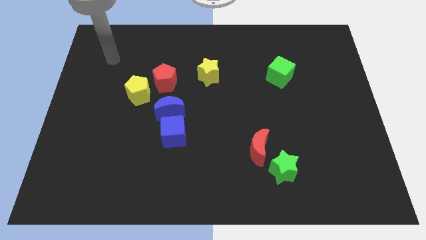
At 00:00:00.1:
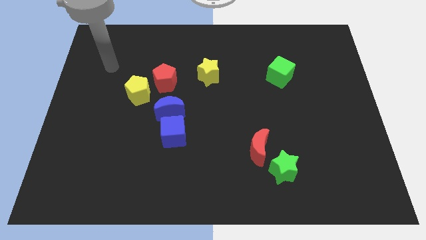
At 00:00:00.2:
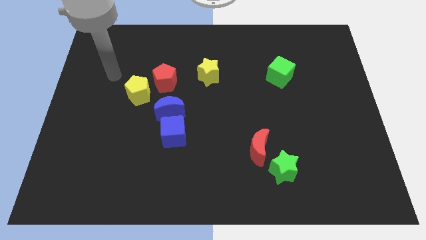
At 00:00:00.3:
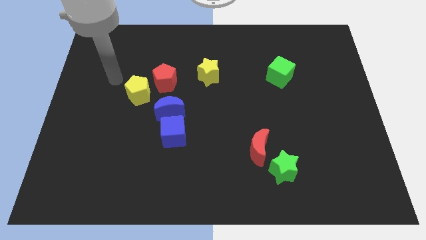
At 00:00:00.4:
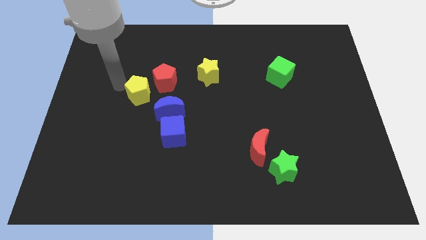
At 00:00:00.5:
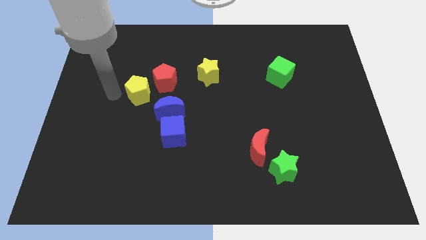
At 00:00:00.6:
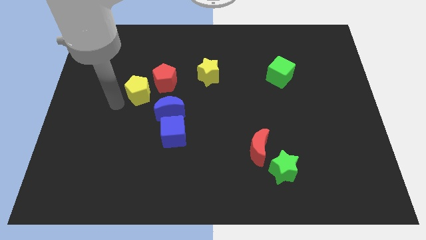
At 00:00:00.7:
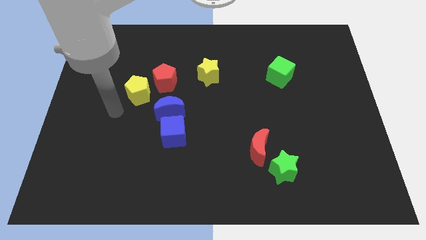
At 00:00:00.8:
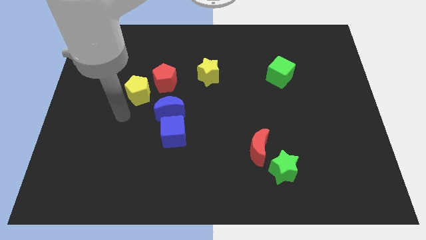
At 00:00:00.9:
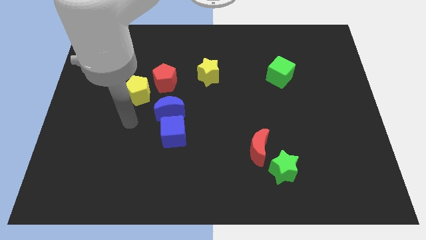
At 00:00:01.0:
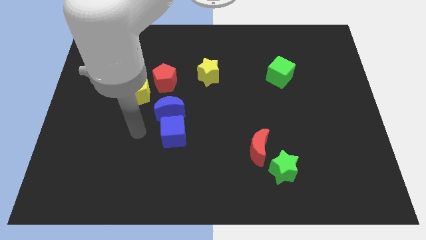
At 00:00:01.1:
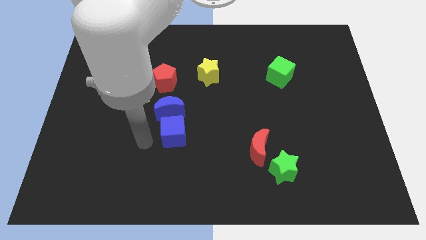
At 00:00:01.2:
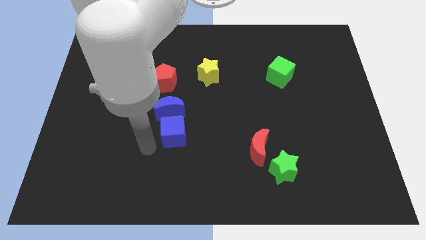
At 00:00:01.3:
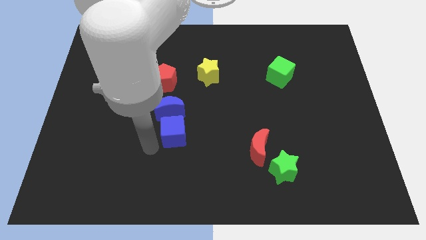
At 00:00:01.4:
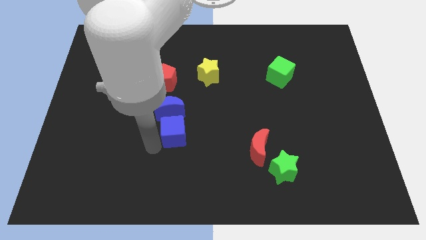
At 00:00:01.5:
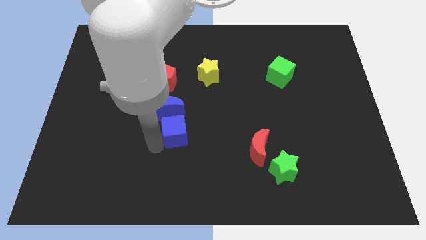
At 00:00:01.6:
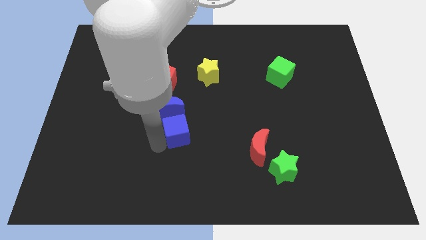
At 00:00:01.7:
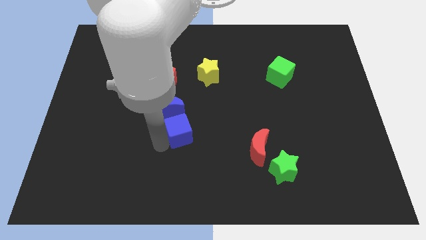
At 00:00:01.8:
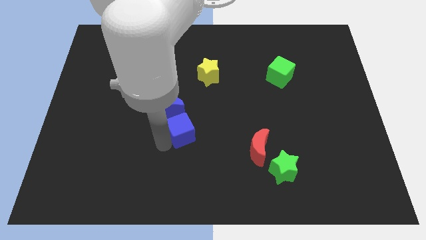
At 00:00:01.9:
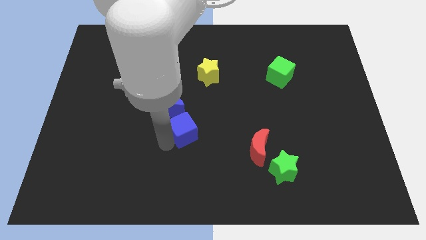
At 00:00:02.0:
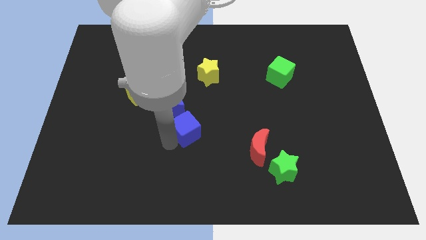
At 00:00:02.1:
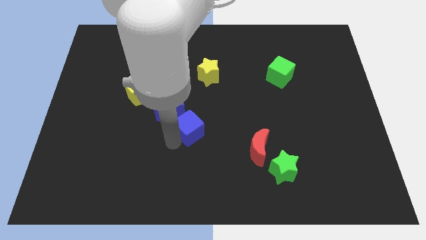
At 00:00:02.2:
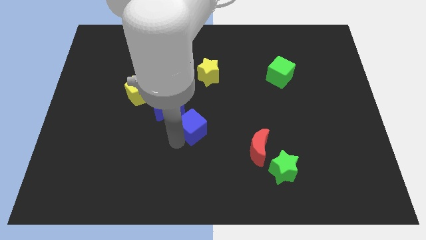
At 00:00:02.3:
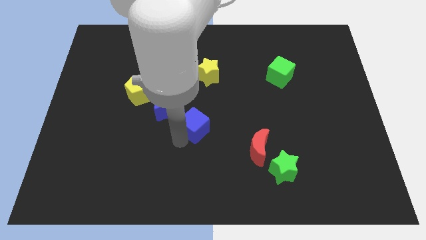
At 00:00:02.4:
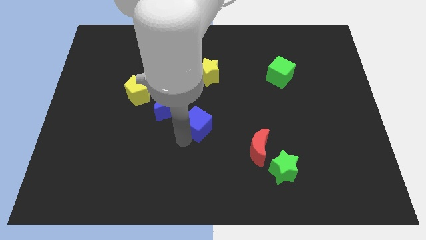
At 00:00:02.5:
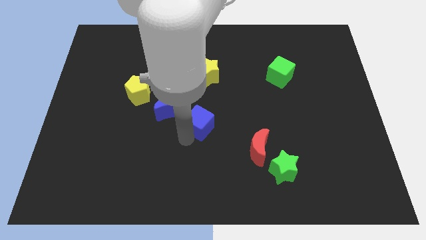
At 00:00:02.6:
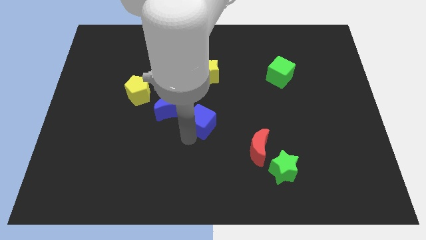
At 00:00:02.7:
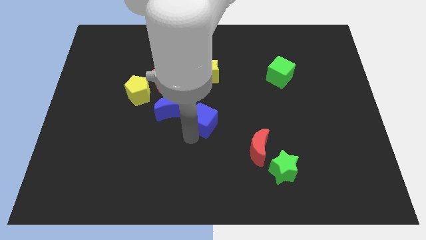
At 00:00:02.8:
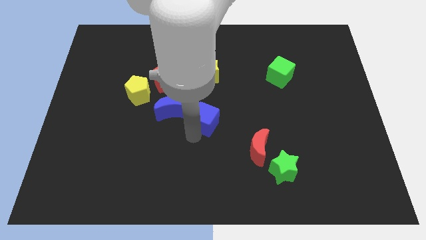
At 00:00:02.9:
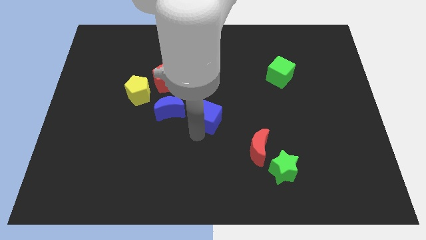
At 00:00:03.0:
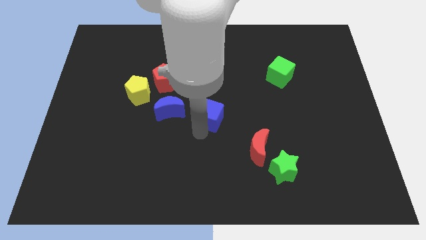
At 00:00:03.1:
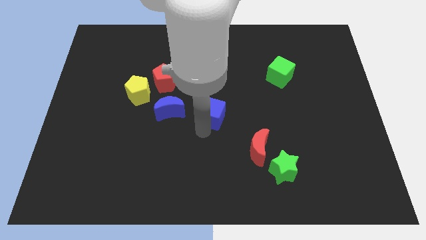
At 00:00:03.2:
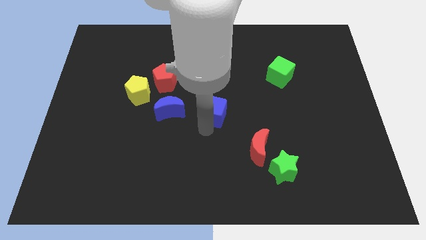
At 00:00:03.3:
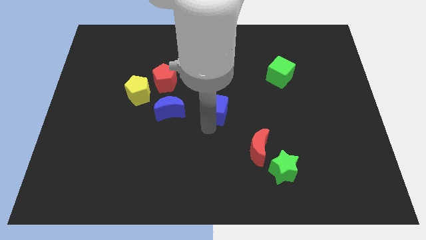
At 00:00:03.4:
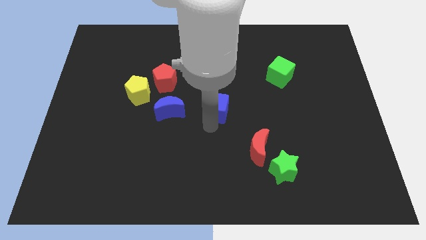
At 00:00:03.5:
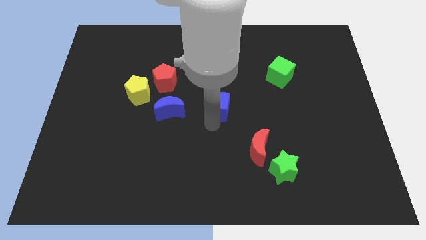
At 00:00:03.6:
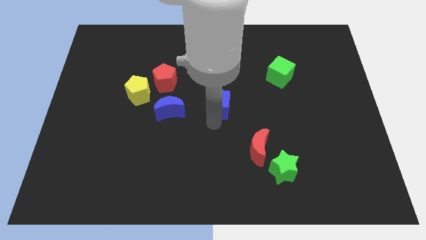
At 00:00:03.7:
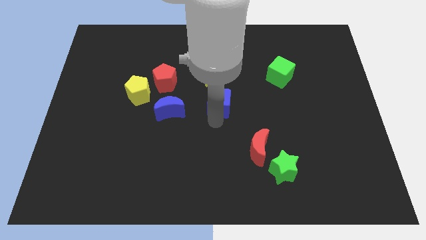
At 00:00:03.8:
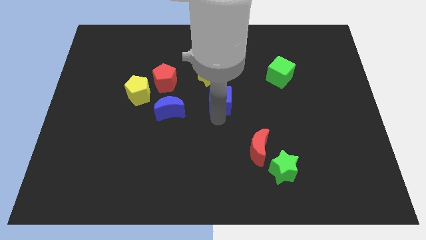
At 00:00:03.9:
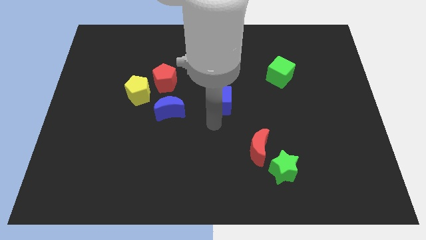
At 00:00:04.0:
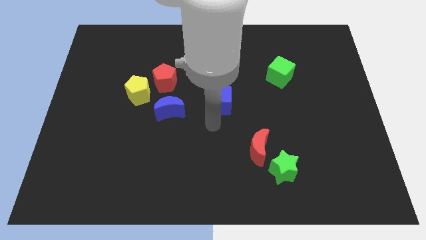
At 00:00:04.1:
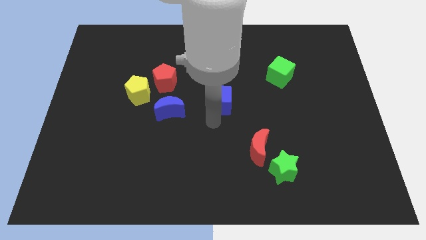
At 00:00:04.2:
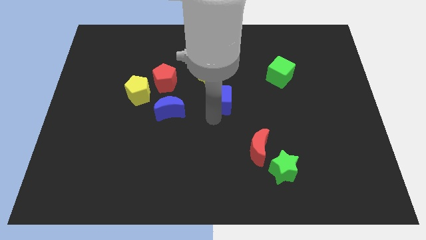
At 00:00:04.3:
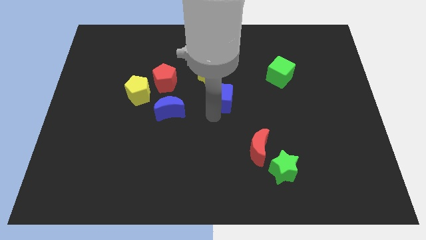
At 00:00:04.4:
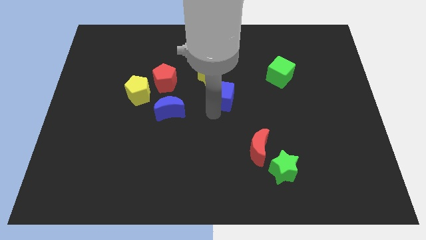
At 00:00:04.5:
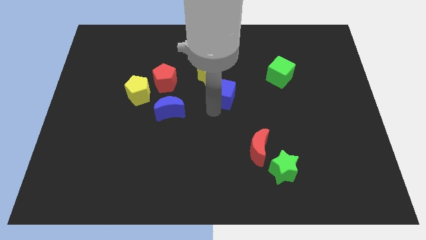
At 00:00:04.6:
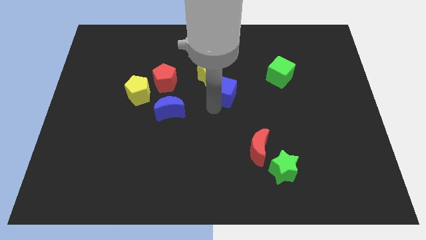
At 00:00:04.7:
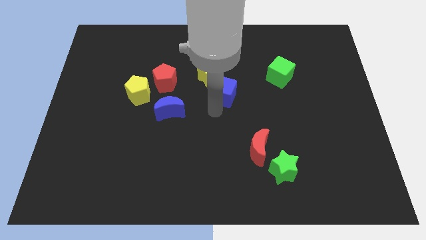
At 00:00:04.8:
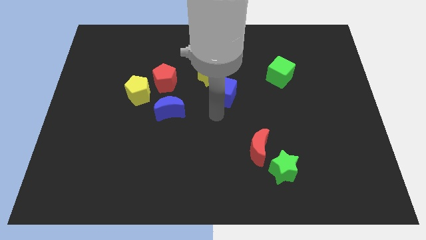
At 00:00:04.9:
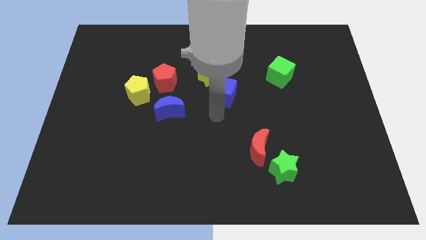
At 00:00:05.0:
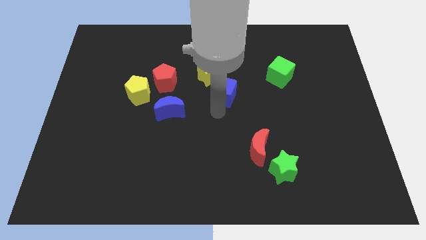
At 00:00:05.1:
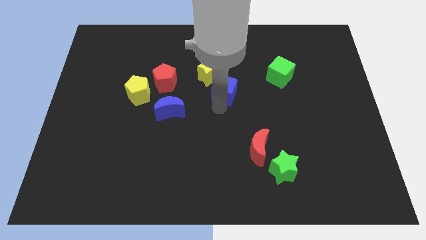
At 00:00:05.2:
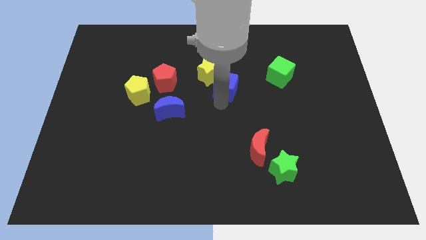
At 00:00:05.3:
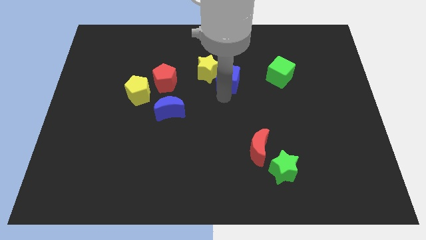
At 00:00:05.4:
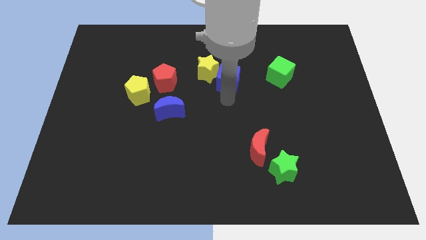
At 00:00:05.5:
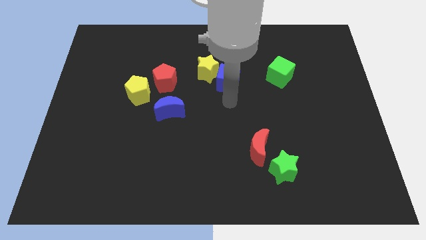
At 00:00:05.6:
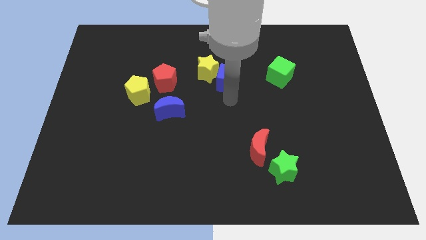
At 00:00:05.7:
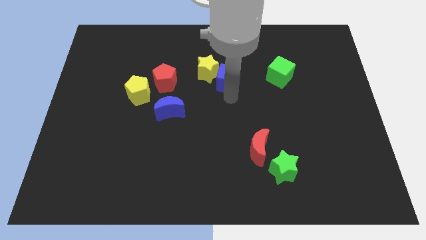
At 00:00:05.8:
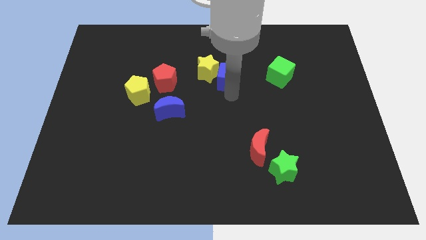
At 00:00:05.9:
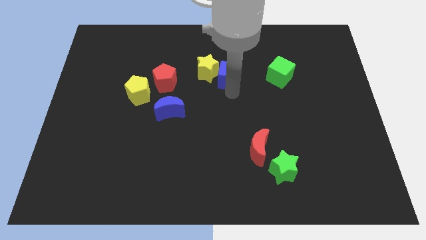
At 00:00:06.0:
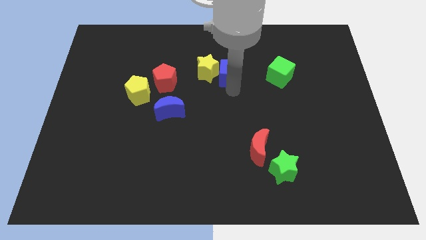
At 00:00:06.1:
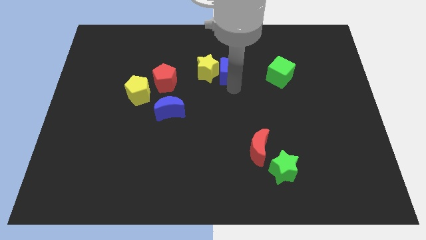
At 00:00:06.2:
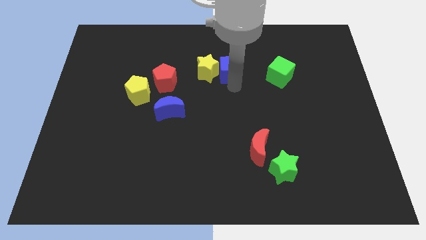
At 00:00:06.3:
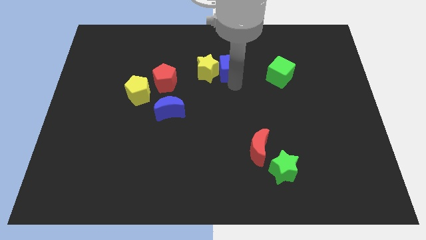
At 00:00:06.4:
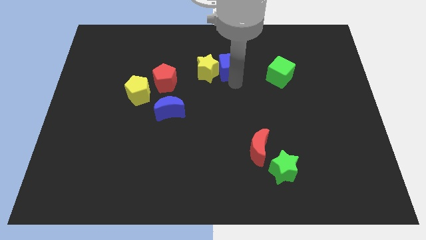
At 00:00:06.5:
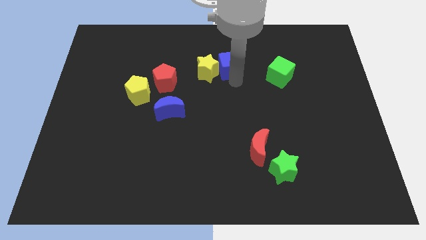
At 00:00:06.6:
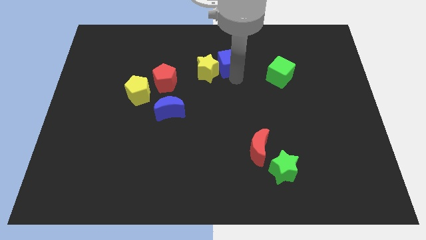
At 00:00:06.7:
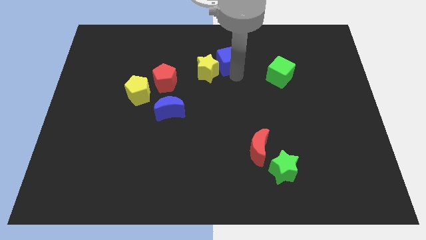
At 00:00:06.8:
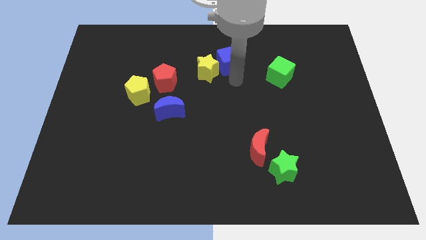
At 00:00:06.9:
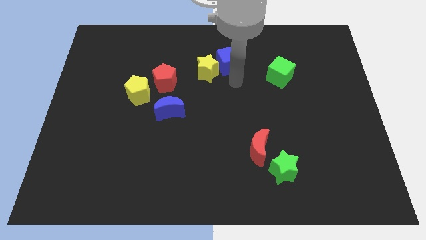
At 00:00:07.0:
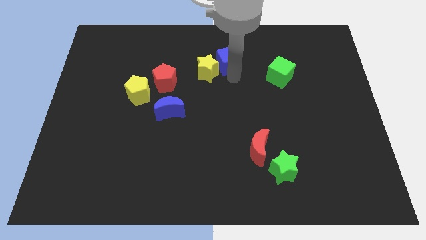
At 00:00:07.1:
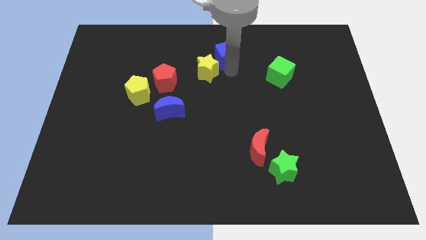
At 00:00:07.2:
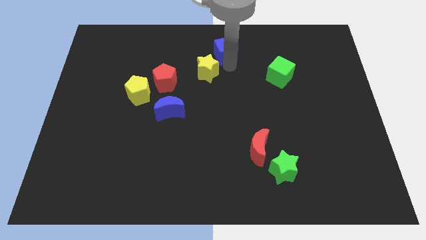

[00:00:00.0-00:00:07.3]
push the blue cube to the top side
